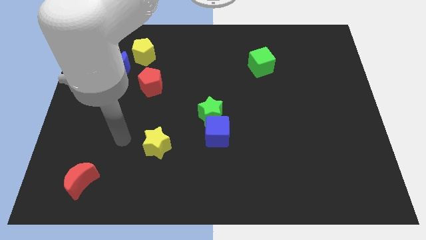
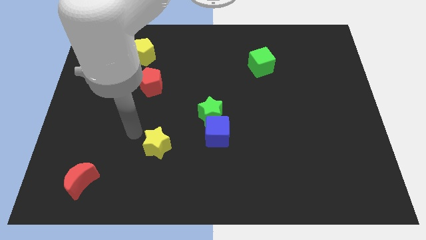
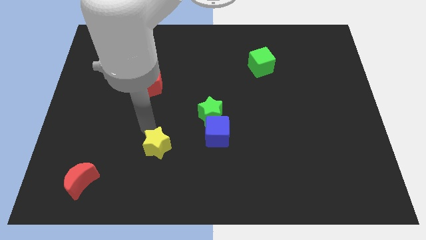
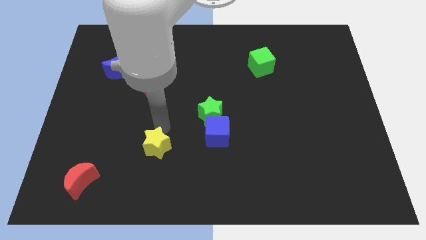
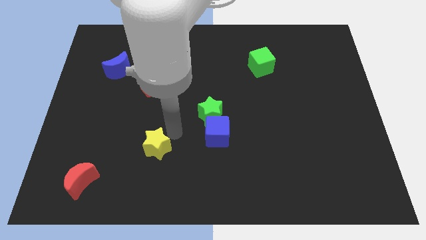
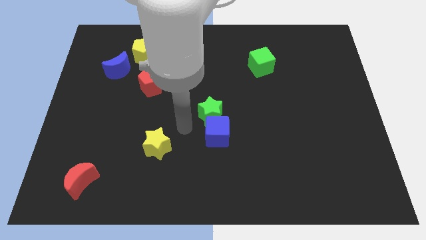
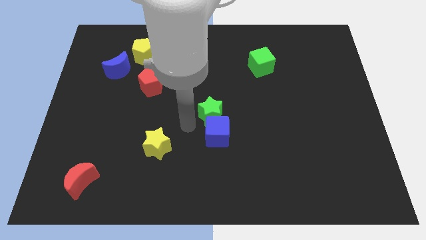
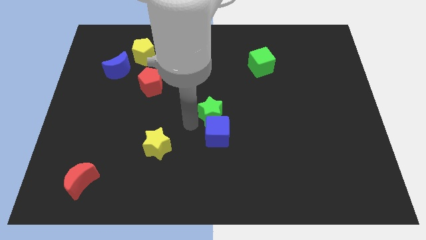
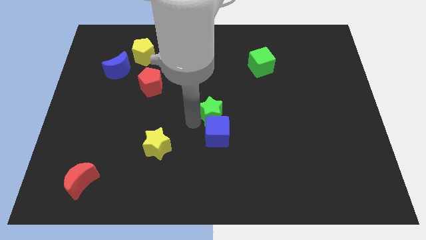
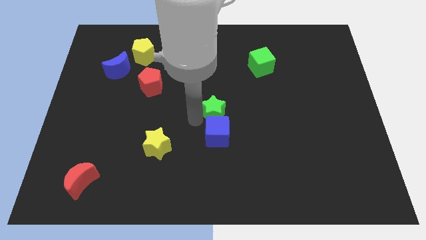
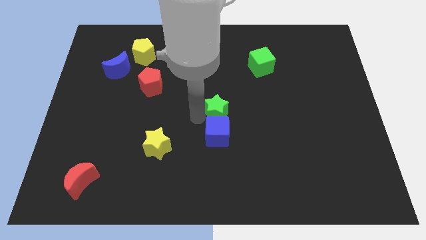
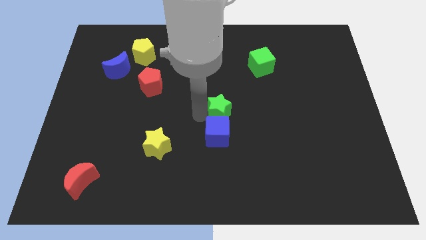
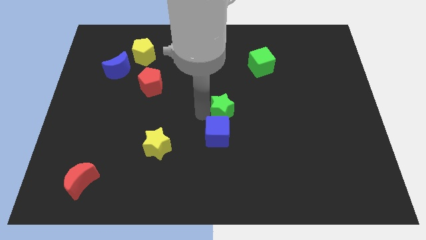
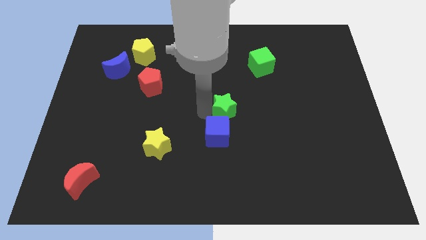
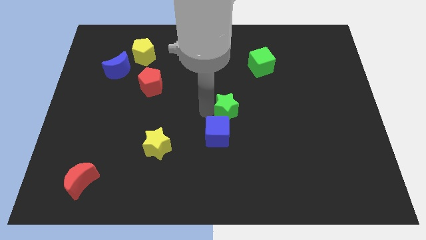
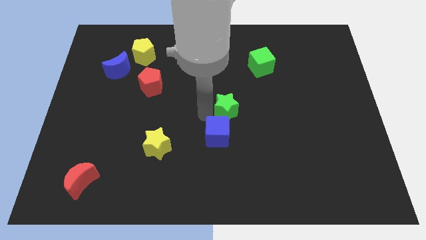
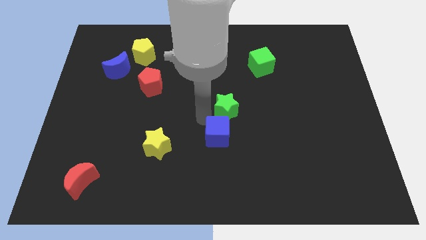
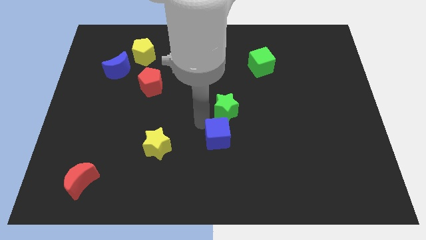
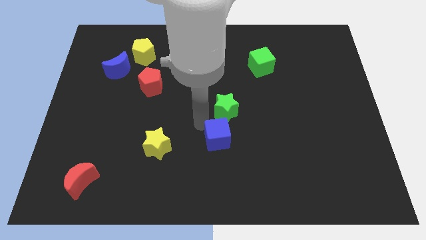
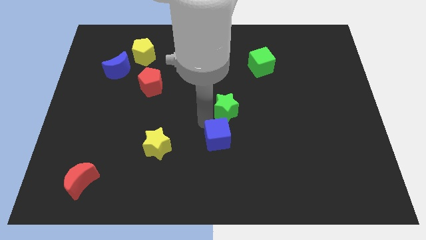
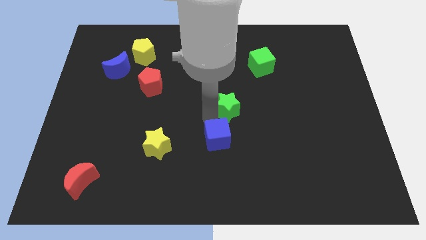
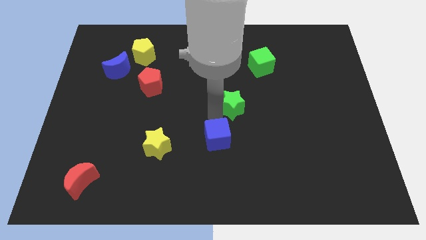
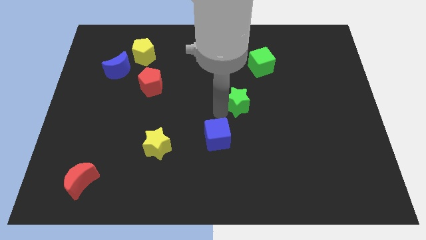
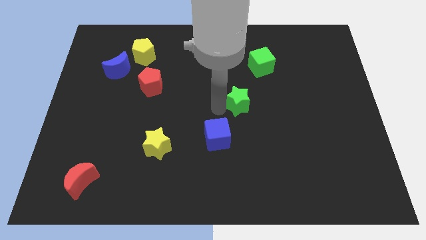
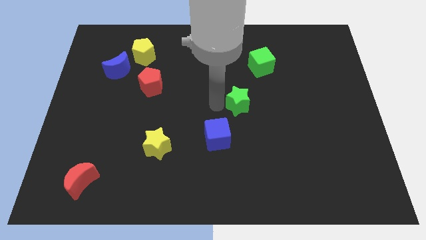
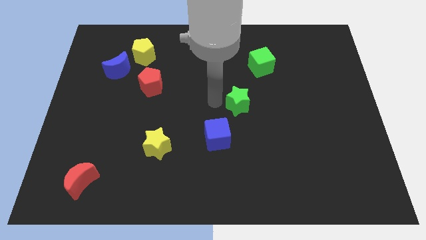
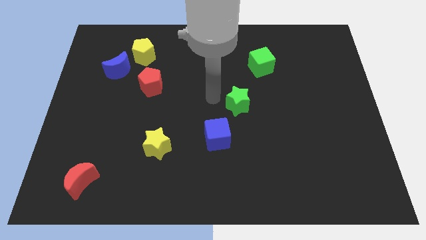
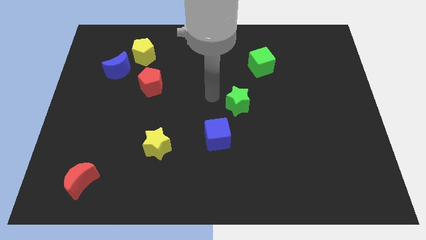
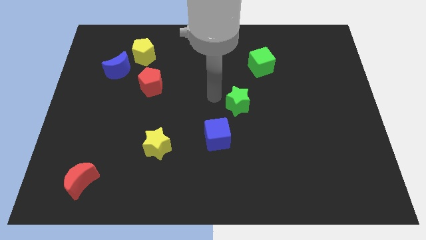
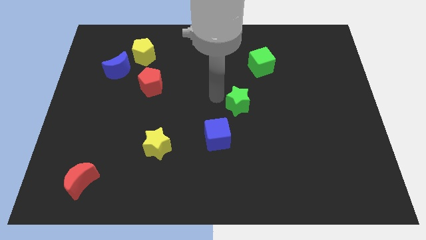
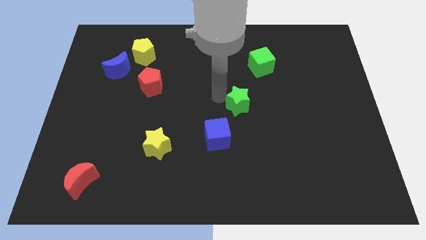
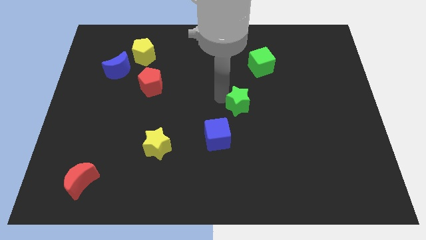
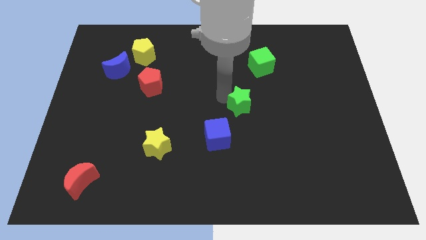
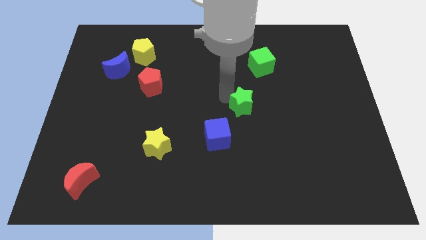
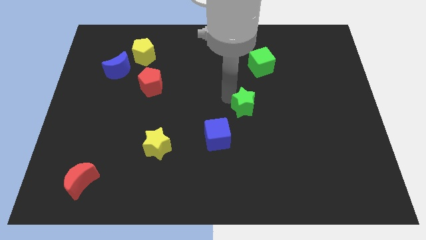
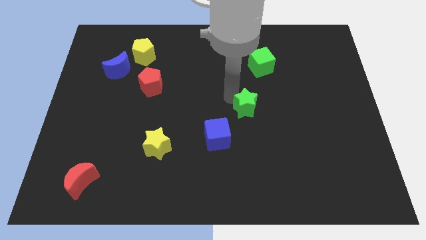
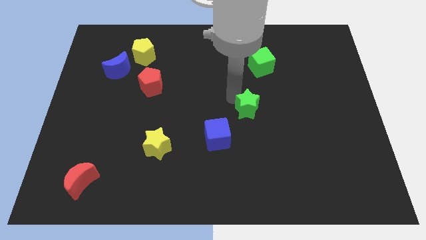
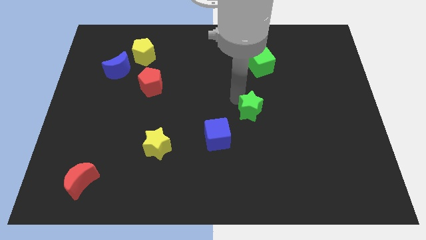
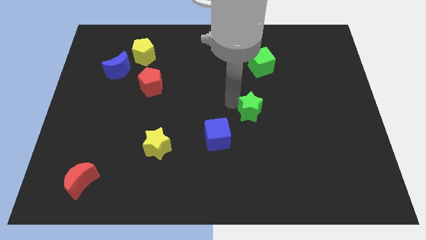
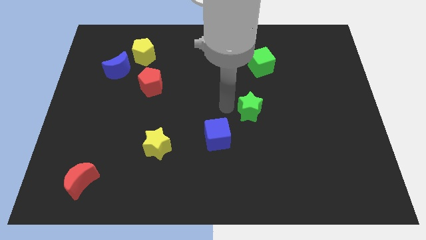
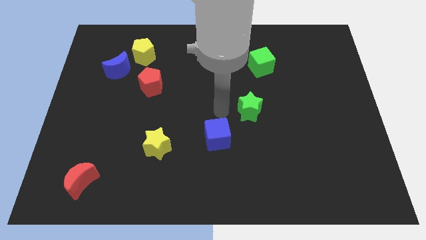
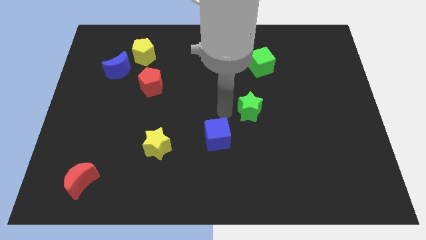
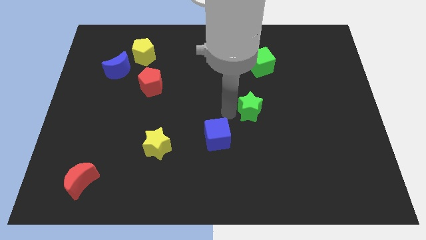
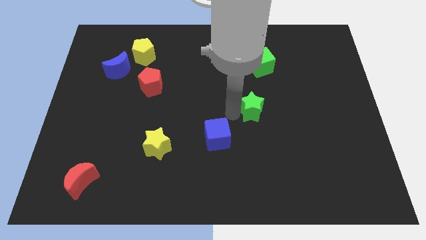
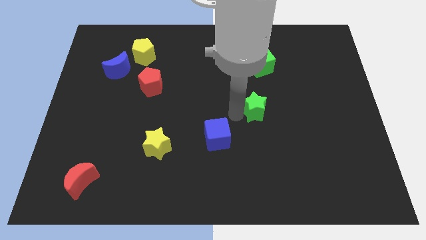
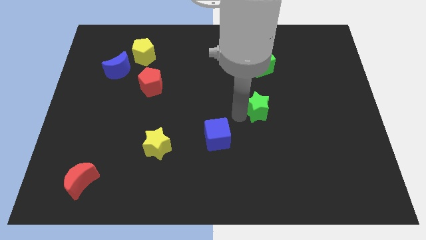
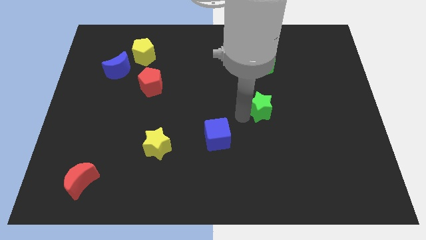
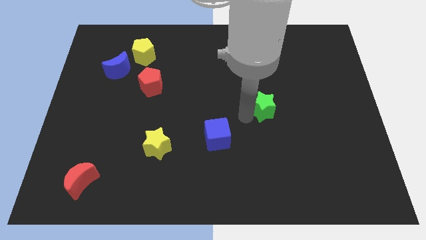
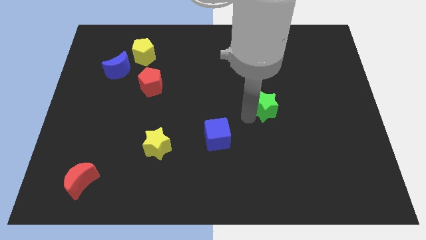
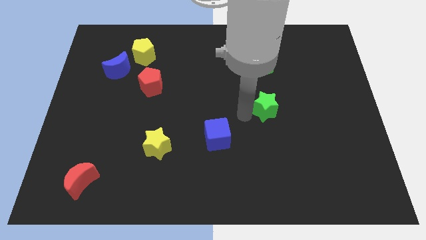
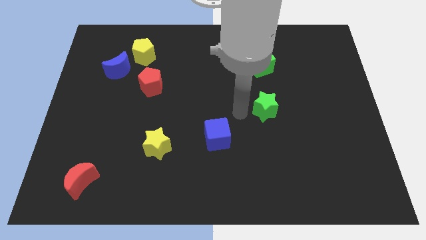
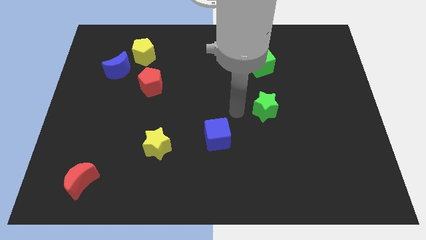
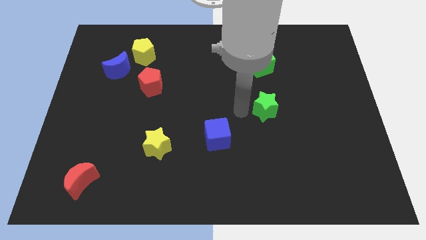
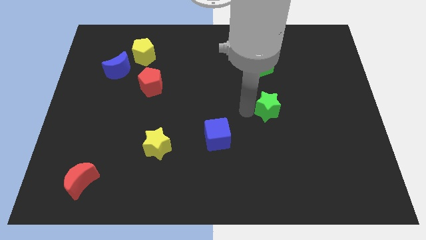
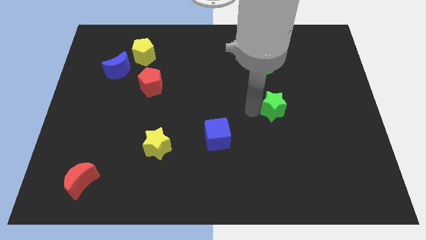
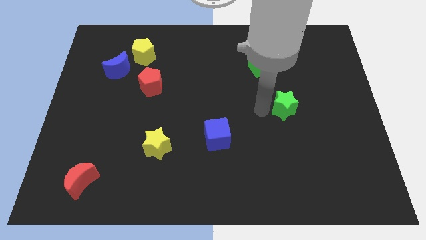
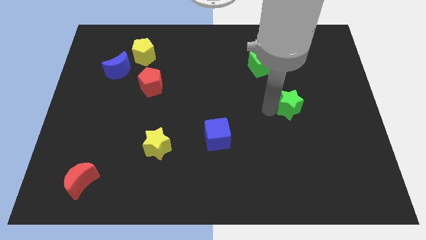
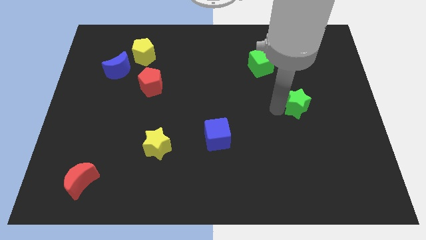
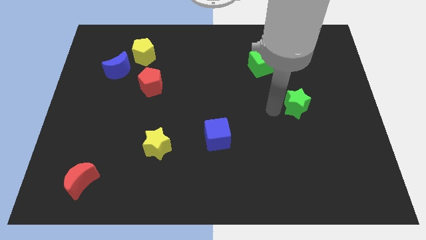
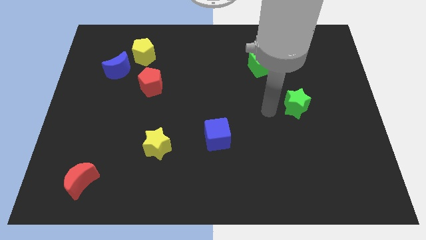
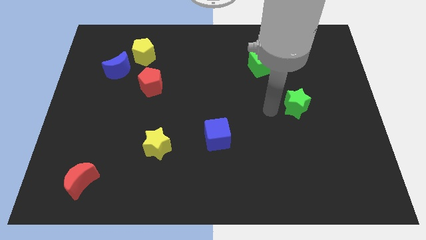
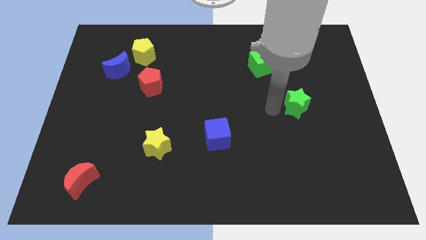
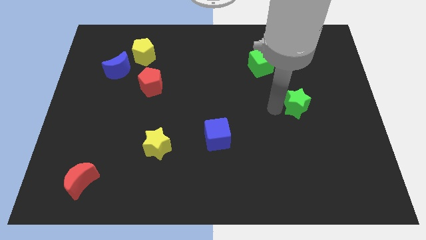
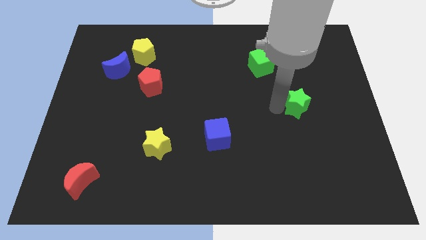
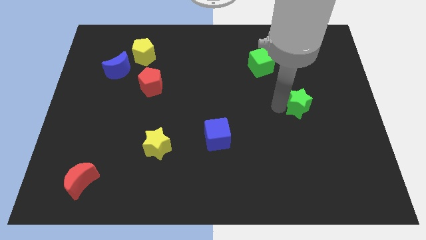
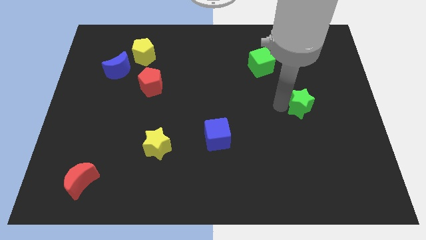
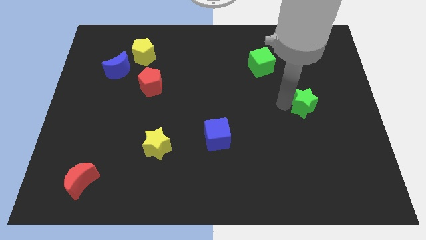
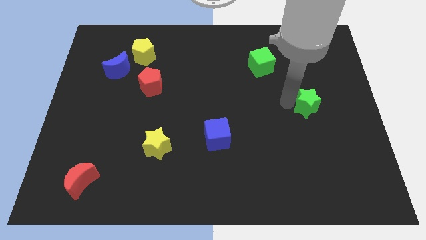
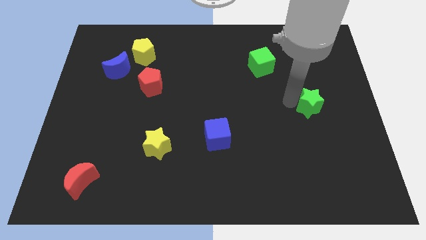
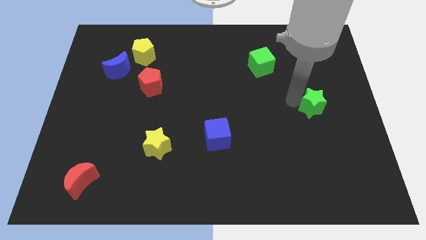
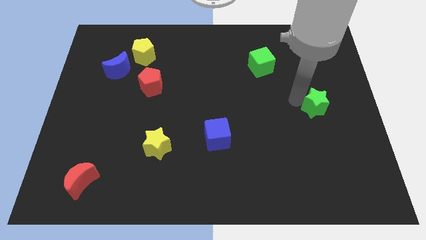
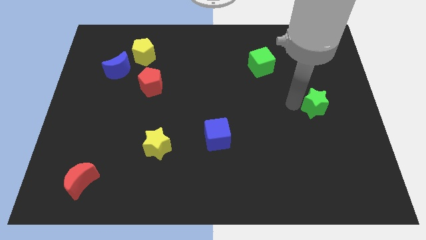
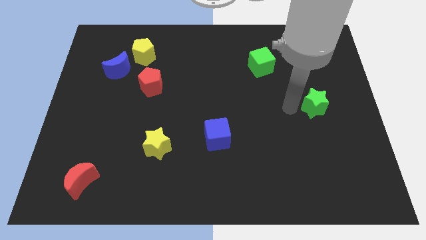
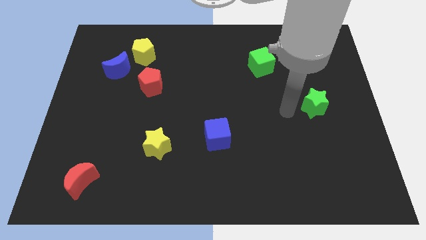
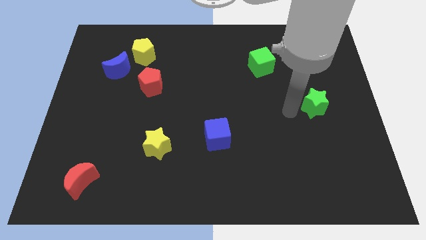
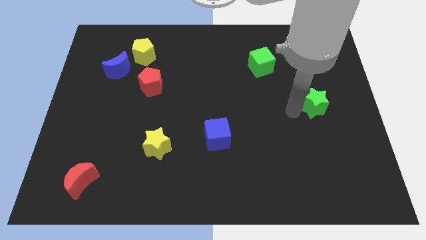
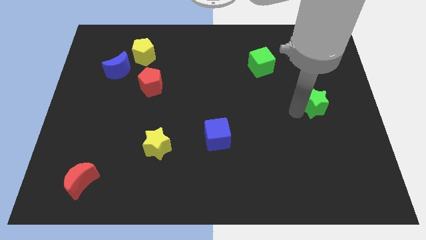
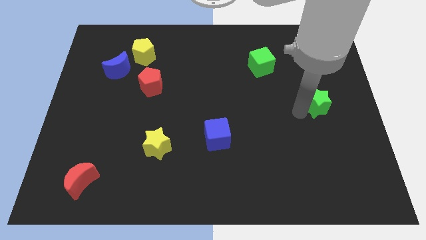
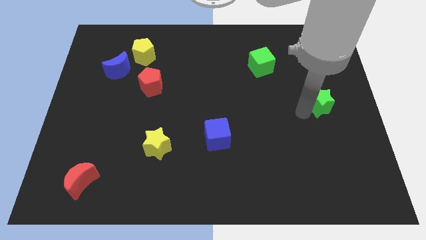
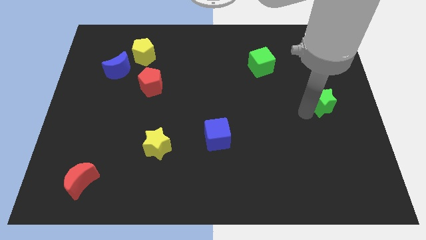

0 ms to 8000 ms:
put the green star to the center right
